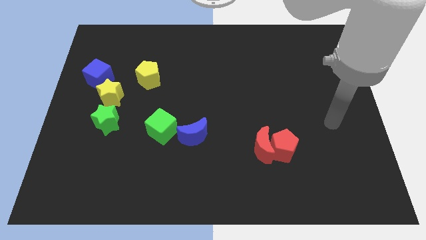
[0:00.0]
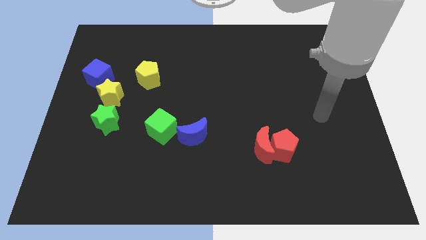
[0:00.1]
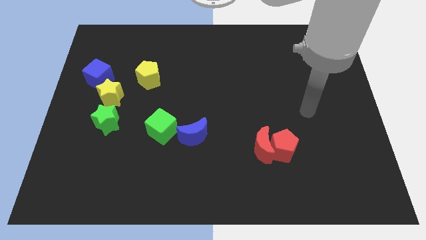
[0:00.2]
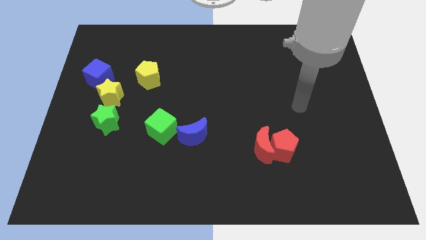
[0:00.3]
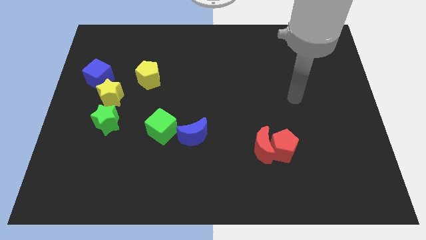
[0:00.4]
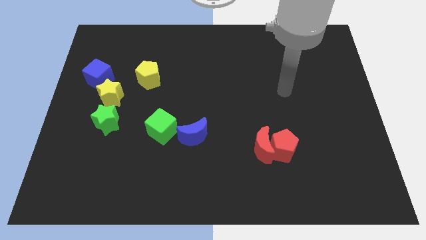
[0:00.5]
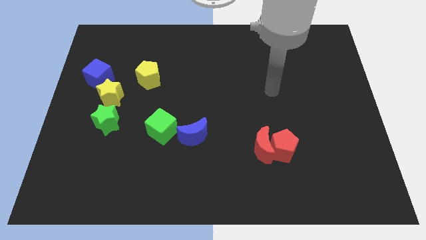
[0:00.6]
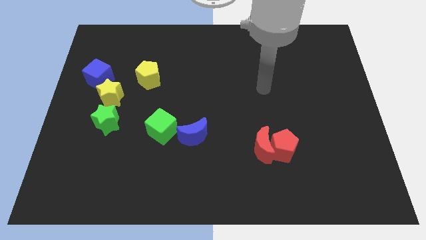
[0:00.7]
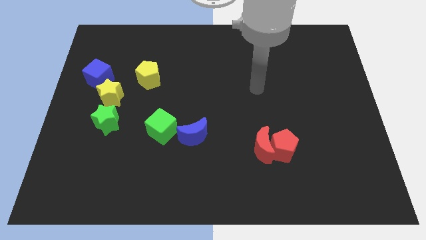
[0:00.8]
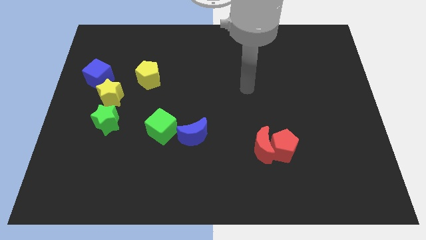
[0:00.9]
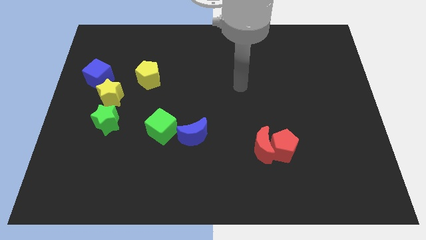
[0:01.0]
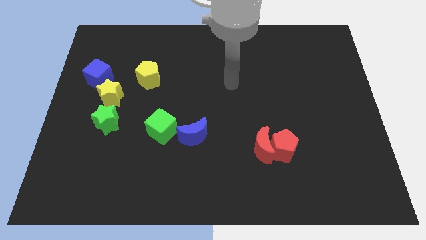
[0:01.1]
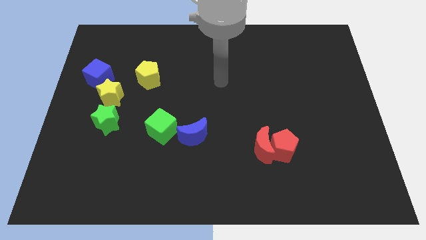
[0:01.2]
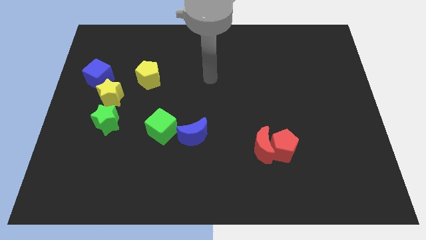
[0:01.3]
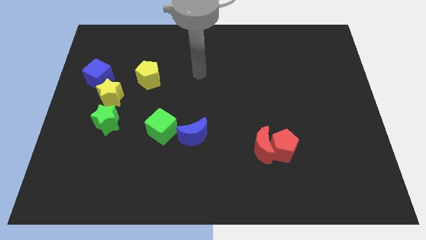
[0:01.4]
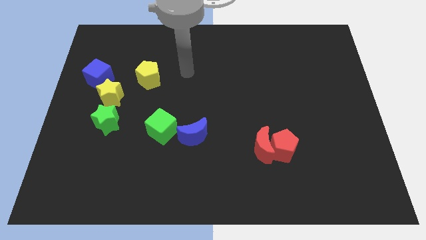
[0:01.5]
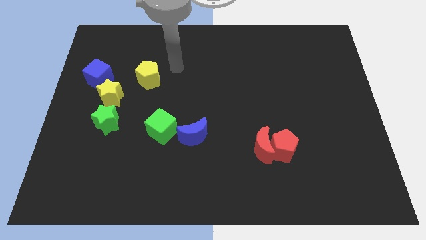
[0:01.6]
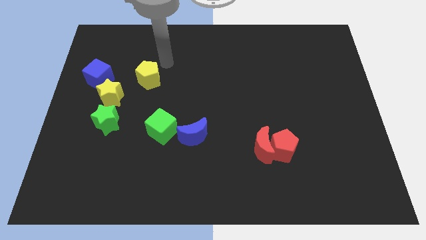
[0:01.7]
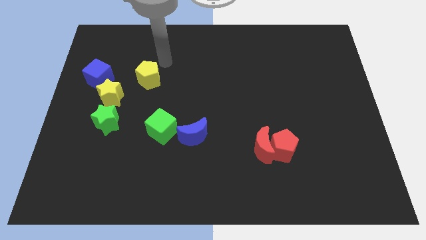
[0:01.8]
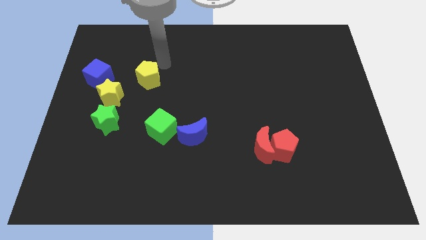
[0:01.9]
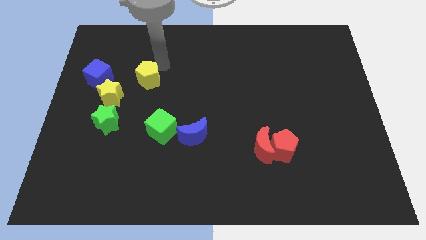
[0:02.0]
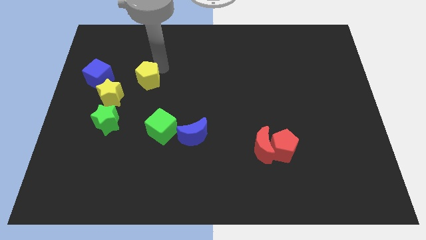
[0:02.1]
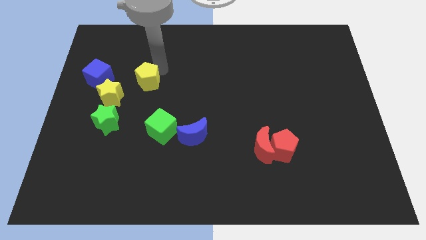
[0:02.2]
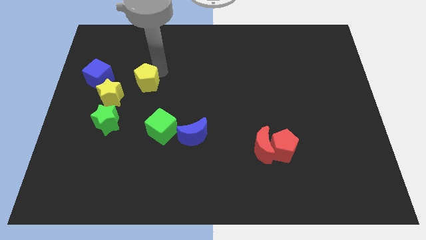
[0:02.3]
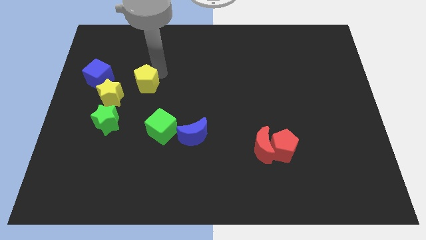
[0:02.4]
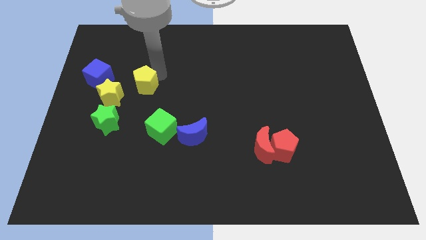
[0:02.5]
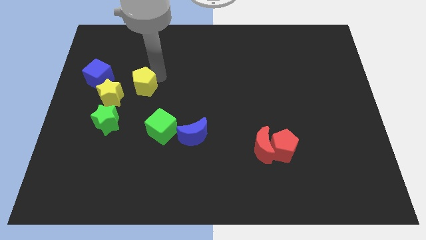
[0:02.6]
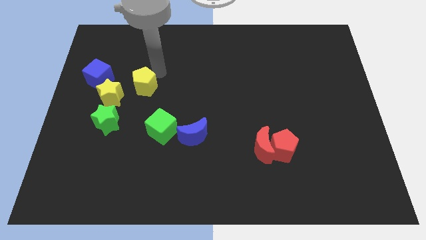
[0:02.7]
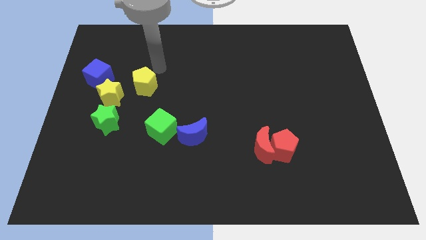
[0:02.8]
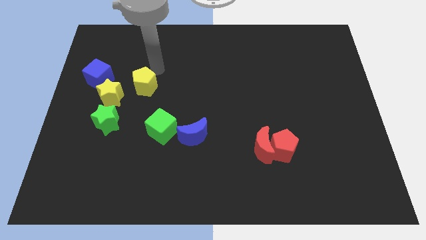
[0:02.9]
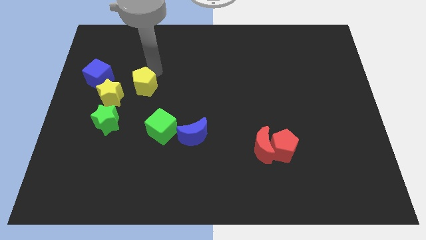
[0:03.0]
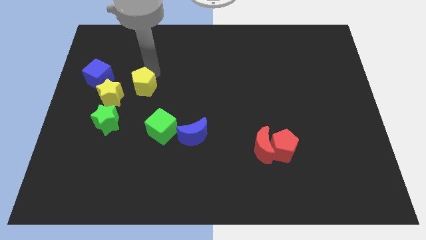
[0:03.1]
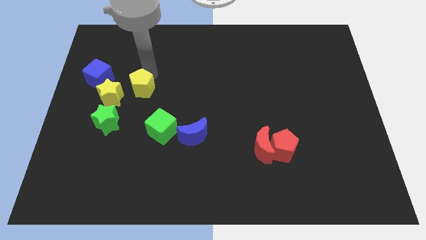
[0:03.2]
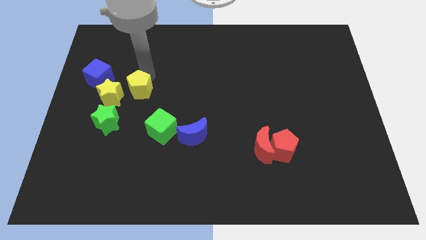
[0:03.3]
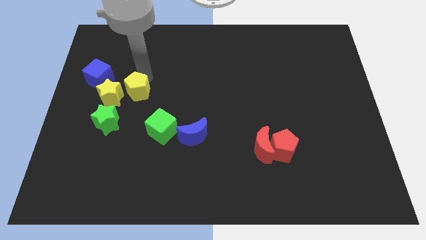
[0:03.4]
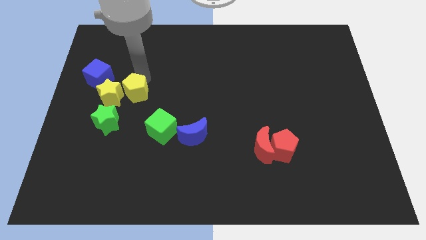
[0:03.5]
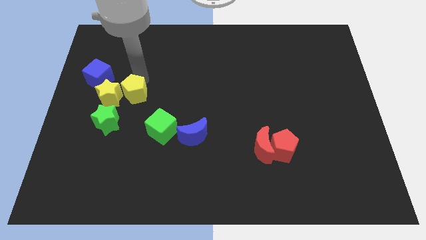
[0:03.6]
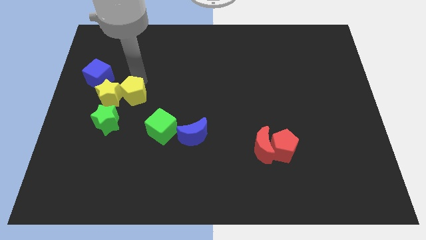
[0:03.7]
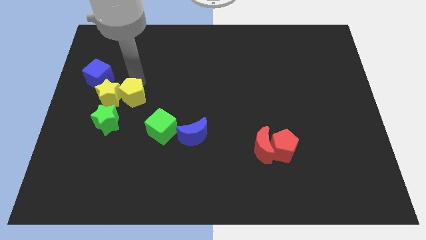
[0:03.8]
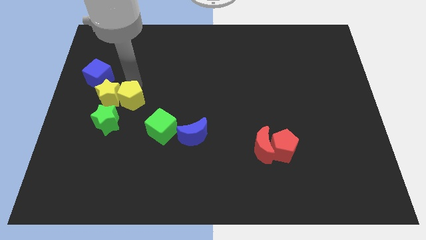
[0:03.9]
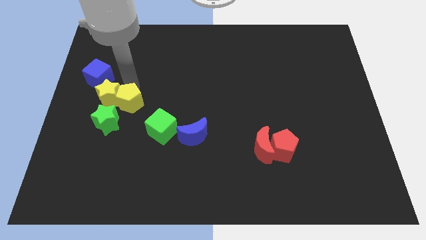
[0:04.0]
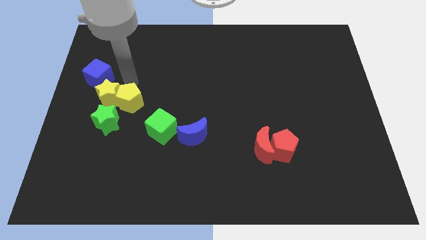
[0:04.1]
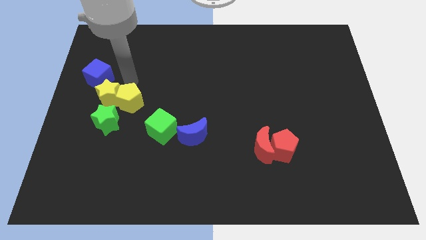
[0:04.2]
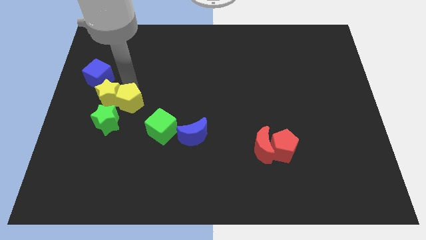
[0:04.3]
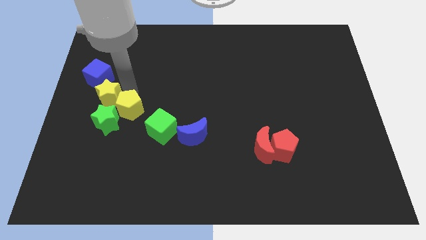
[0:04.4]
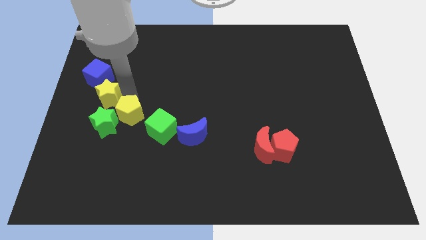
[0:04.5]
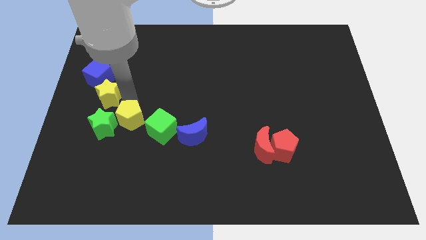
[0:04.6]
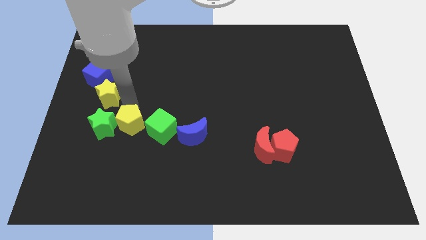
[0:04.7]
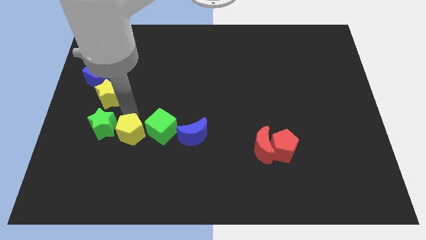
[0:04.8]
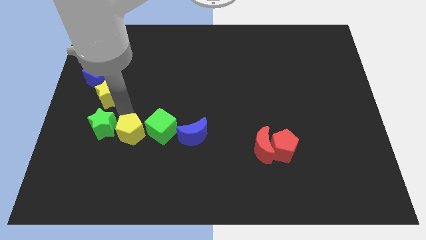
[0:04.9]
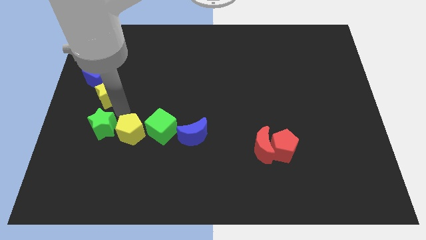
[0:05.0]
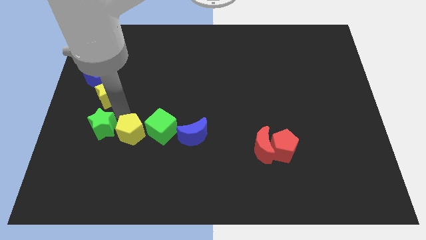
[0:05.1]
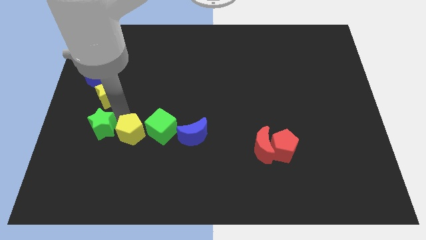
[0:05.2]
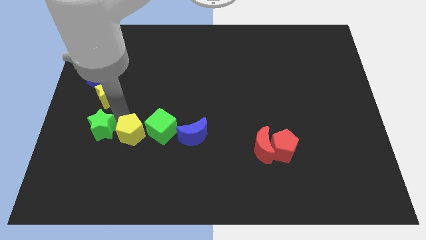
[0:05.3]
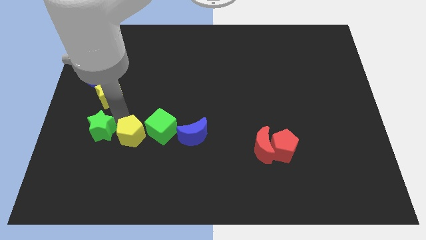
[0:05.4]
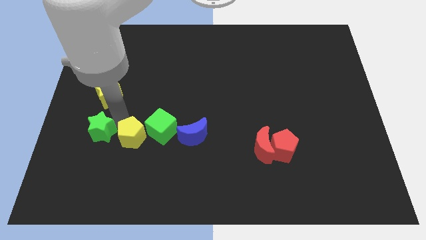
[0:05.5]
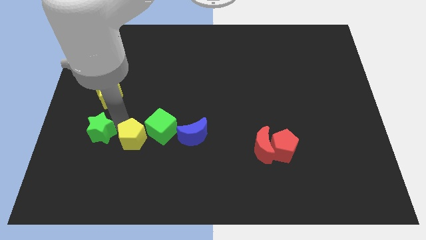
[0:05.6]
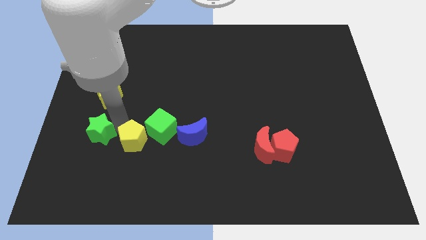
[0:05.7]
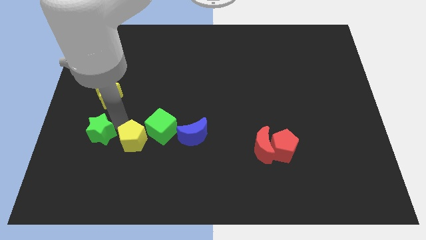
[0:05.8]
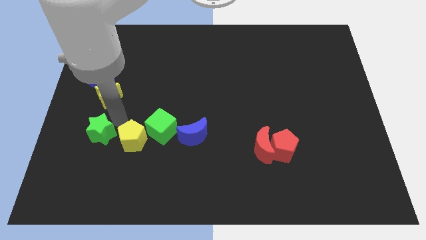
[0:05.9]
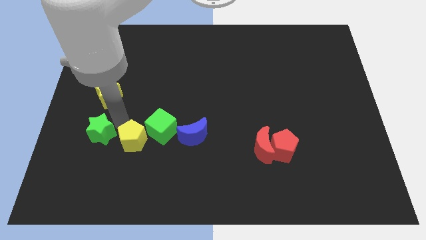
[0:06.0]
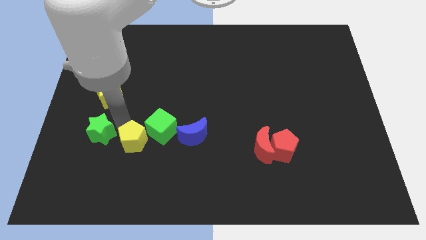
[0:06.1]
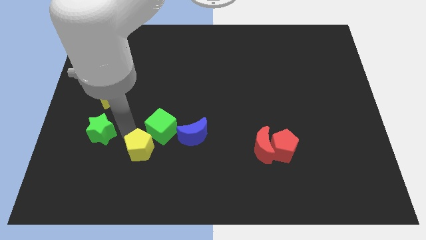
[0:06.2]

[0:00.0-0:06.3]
put the yellow pentagon to the bottom of the green cube
